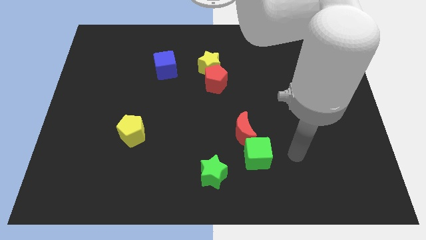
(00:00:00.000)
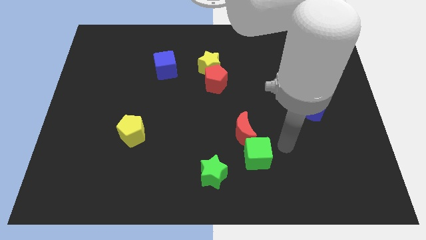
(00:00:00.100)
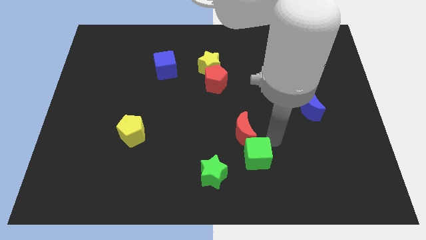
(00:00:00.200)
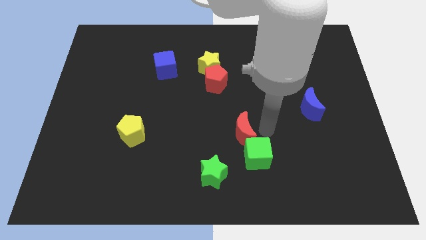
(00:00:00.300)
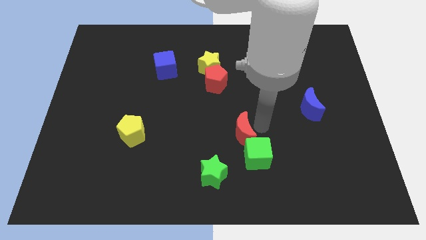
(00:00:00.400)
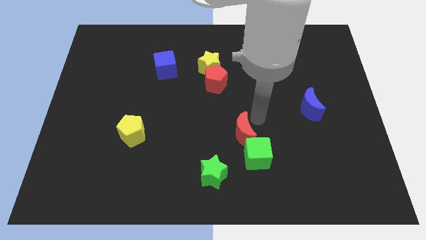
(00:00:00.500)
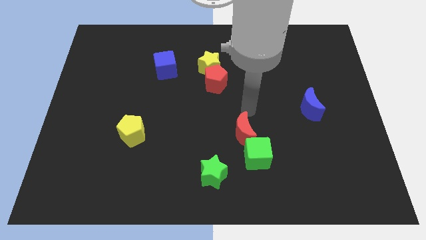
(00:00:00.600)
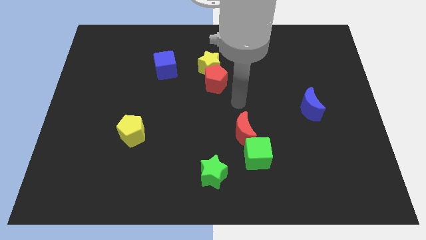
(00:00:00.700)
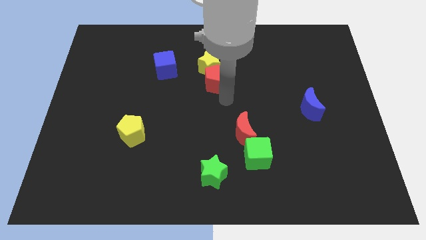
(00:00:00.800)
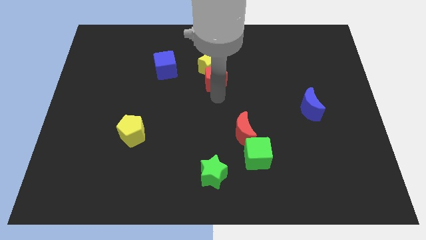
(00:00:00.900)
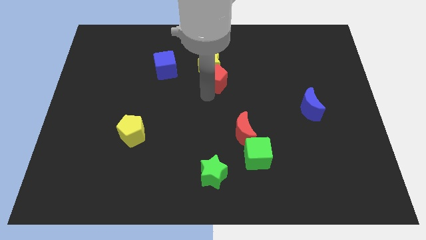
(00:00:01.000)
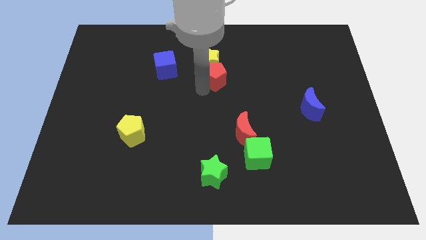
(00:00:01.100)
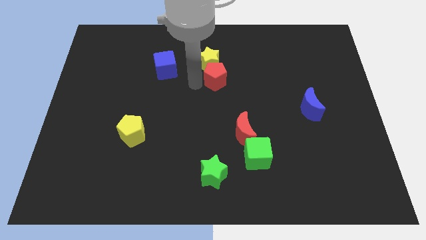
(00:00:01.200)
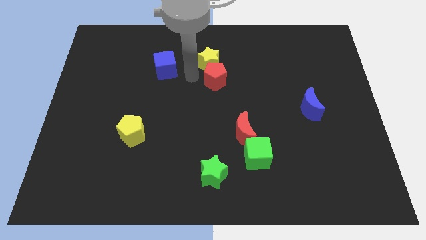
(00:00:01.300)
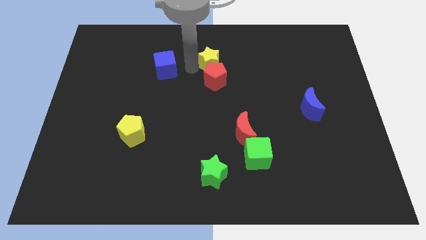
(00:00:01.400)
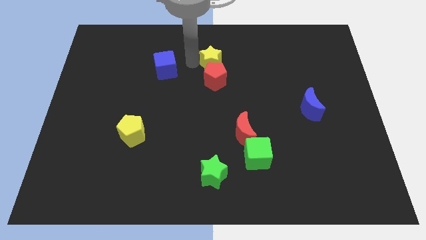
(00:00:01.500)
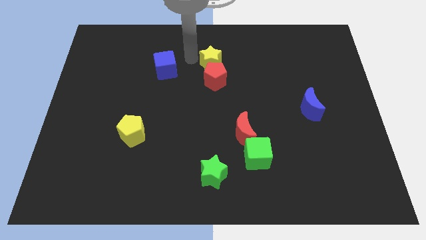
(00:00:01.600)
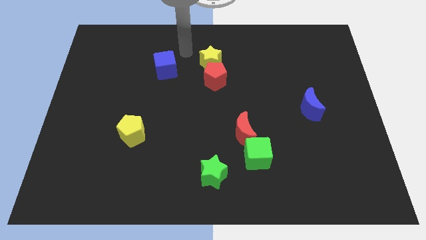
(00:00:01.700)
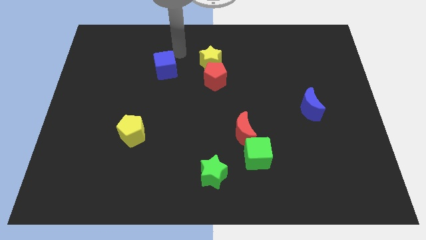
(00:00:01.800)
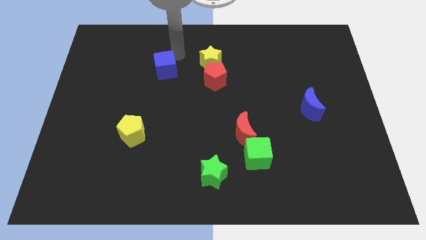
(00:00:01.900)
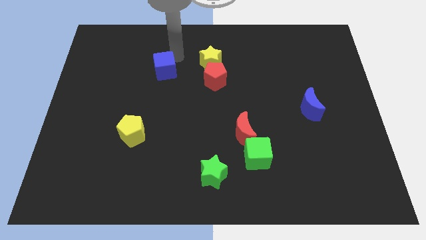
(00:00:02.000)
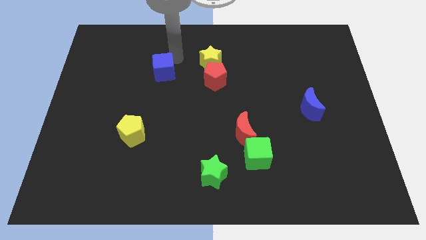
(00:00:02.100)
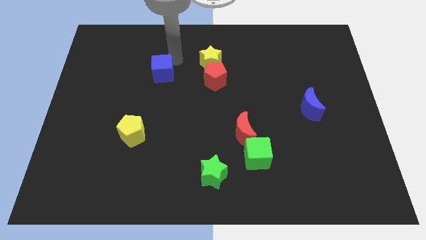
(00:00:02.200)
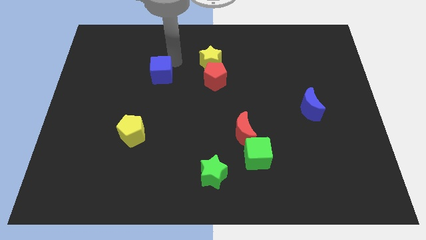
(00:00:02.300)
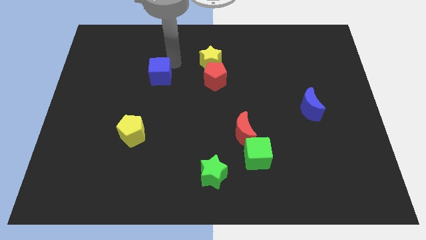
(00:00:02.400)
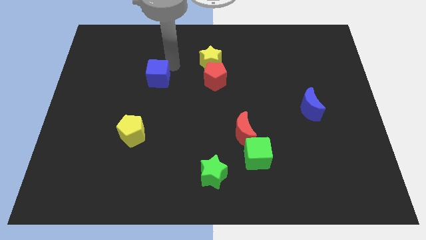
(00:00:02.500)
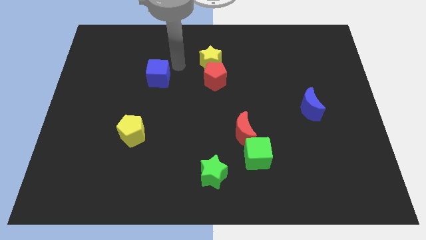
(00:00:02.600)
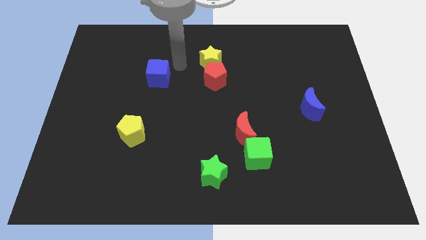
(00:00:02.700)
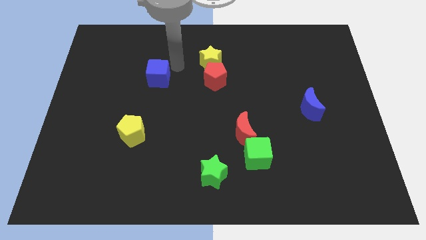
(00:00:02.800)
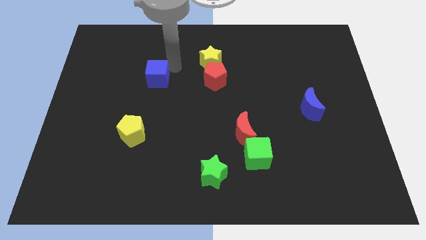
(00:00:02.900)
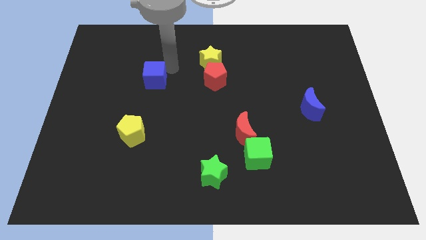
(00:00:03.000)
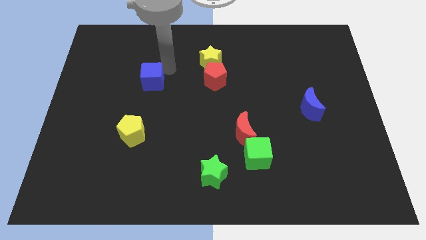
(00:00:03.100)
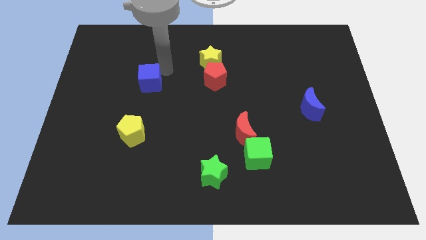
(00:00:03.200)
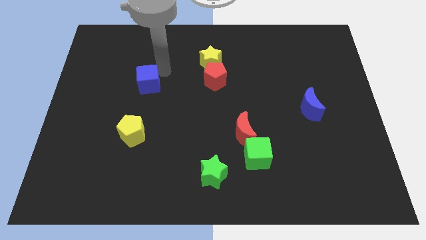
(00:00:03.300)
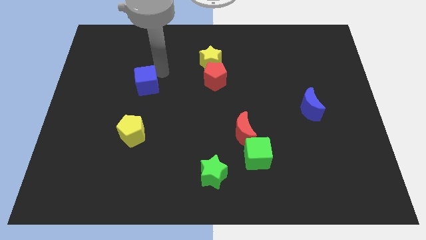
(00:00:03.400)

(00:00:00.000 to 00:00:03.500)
slightly slide the blue cube downwards and then to the left

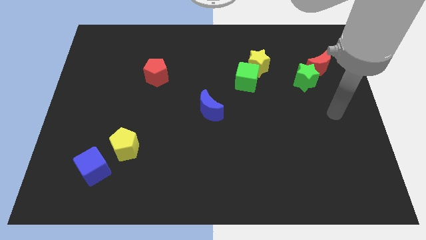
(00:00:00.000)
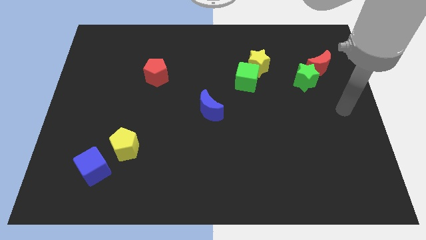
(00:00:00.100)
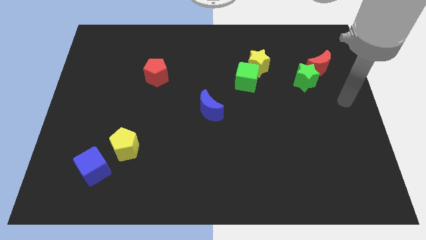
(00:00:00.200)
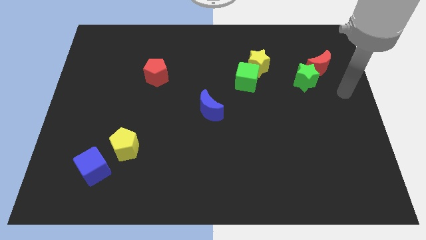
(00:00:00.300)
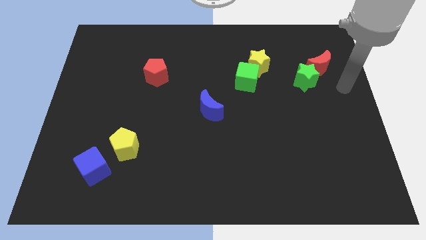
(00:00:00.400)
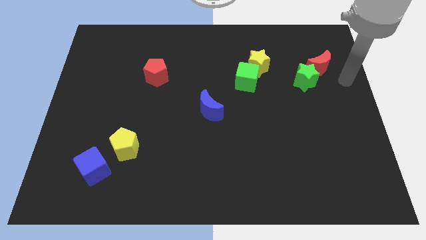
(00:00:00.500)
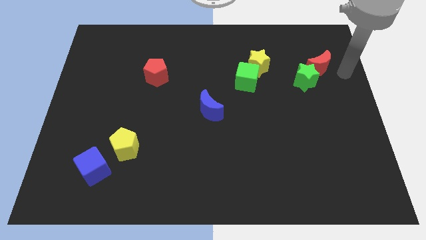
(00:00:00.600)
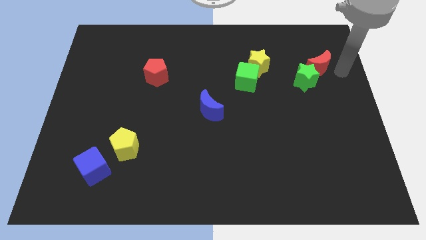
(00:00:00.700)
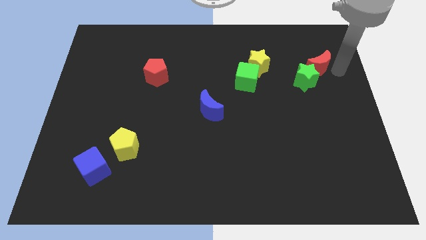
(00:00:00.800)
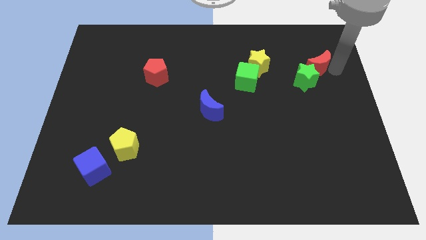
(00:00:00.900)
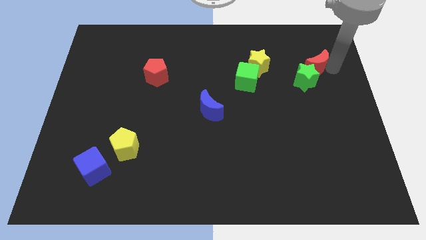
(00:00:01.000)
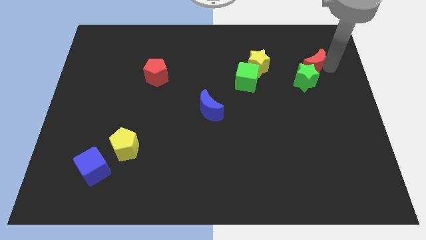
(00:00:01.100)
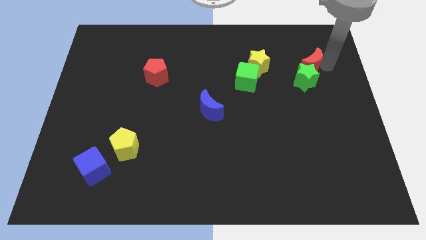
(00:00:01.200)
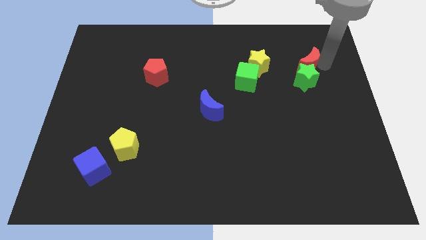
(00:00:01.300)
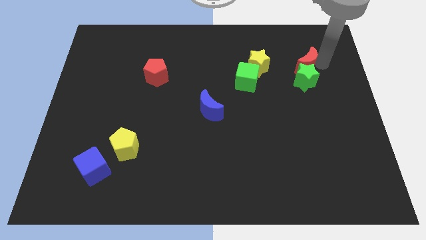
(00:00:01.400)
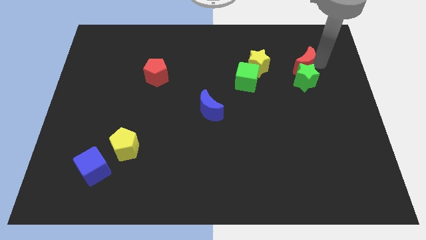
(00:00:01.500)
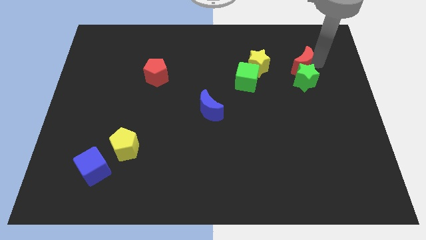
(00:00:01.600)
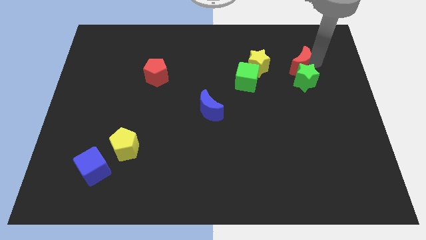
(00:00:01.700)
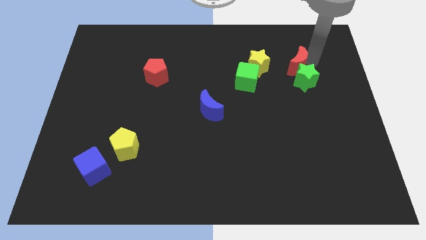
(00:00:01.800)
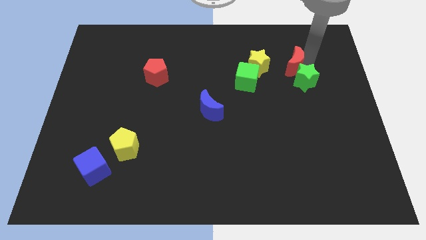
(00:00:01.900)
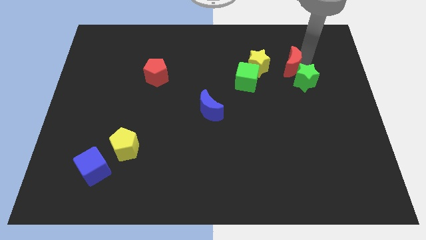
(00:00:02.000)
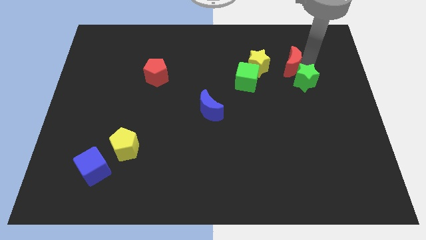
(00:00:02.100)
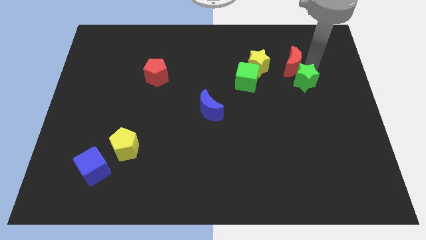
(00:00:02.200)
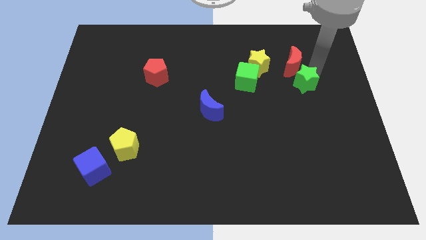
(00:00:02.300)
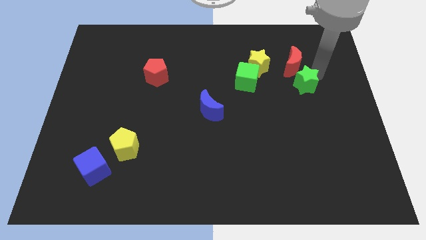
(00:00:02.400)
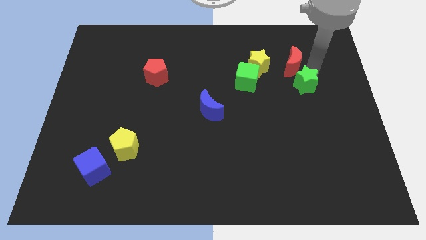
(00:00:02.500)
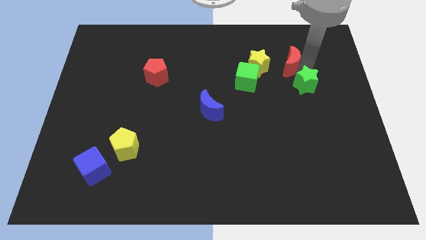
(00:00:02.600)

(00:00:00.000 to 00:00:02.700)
push the red moon to the left a bit

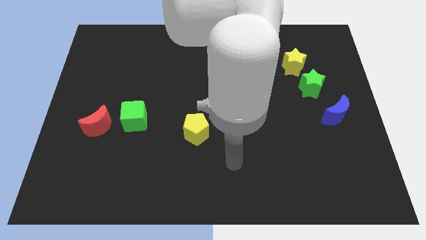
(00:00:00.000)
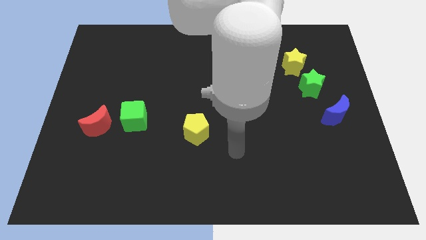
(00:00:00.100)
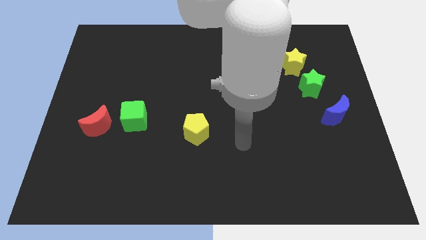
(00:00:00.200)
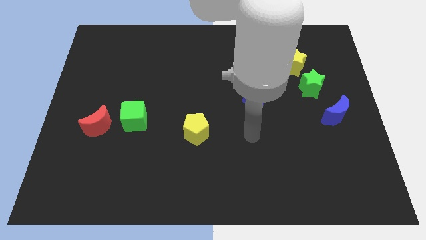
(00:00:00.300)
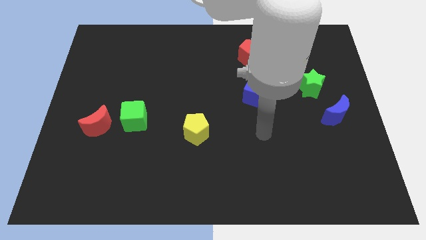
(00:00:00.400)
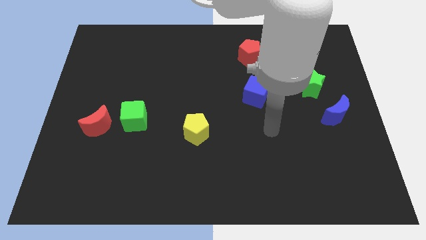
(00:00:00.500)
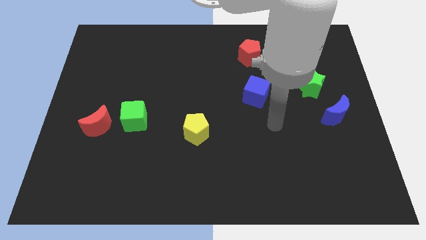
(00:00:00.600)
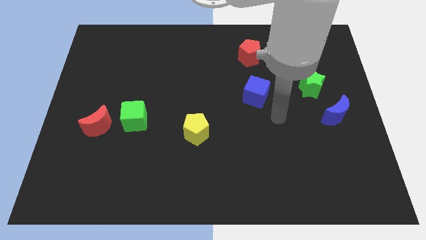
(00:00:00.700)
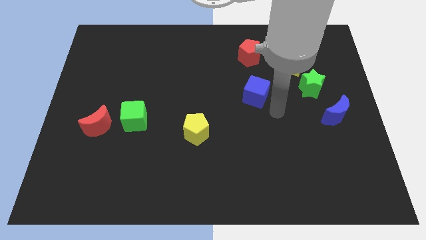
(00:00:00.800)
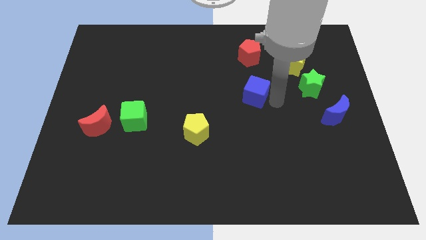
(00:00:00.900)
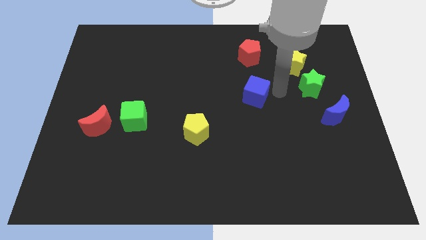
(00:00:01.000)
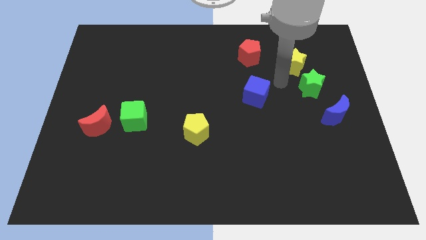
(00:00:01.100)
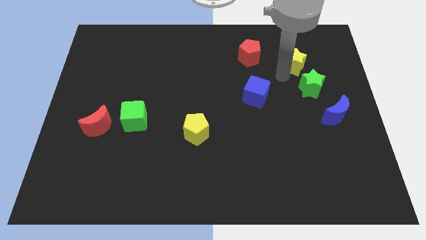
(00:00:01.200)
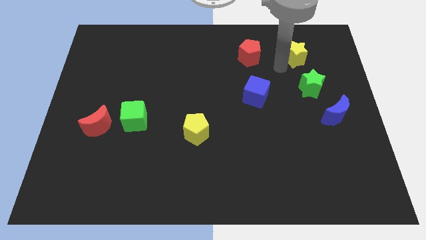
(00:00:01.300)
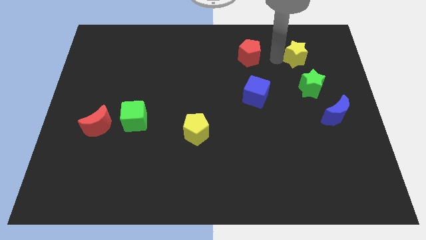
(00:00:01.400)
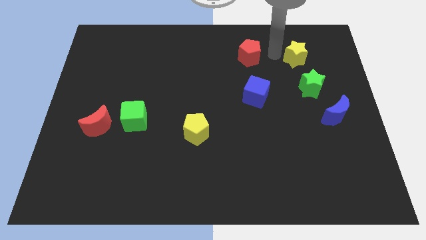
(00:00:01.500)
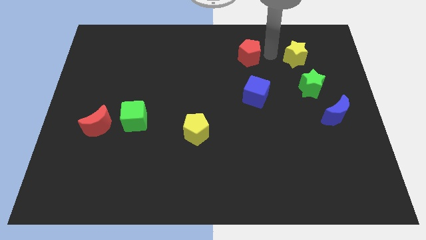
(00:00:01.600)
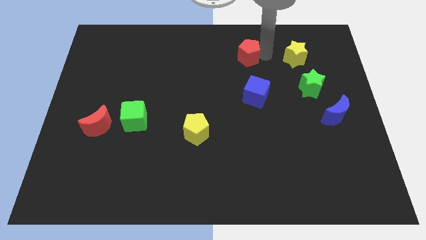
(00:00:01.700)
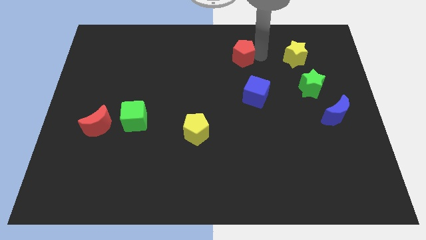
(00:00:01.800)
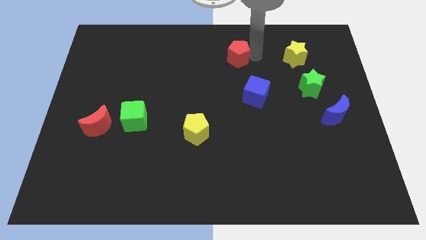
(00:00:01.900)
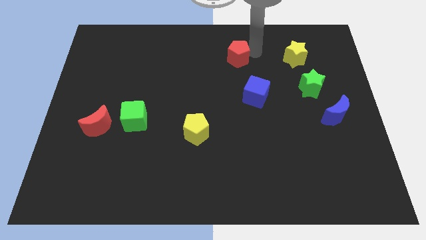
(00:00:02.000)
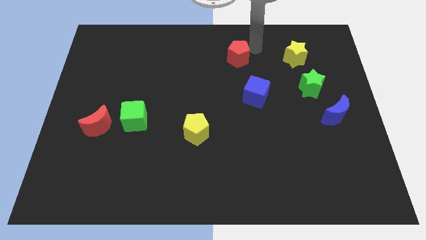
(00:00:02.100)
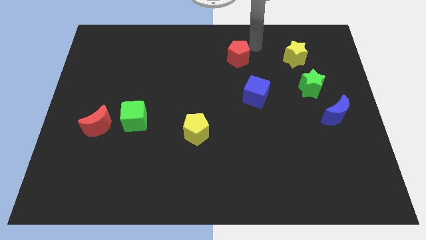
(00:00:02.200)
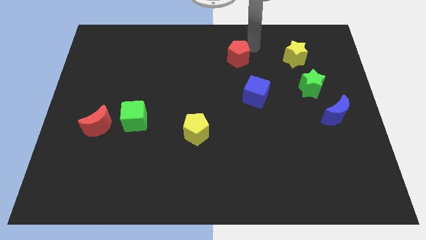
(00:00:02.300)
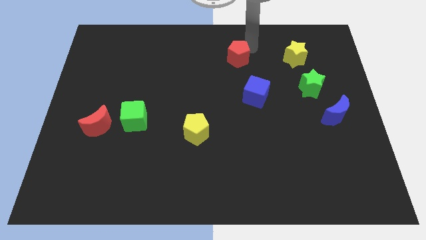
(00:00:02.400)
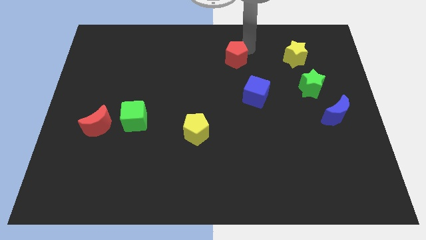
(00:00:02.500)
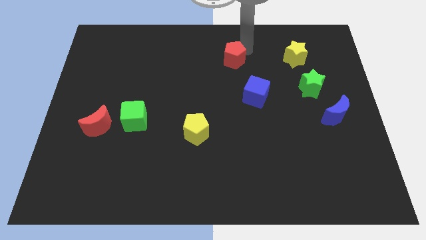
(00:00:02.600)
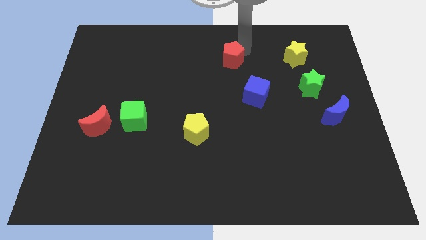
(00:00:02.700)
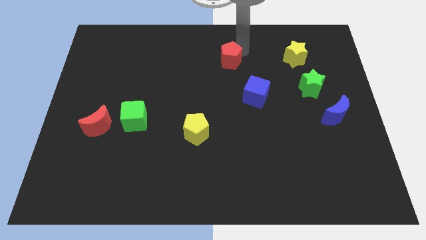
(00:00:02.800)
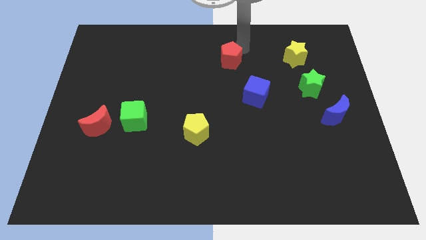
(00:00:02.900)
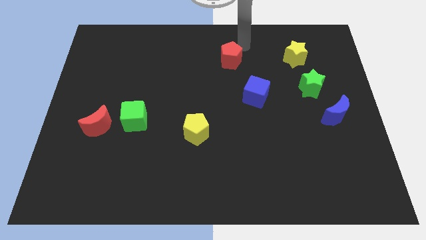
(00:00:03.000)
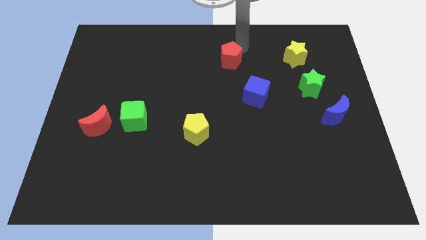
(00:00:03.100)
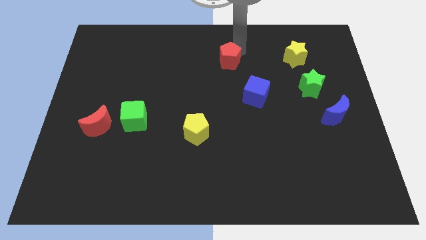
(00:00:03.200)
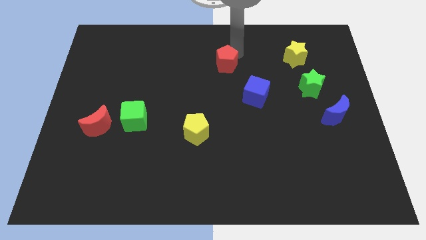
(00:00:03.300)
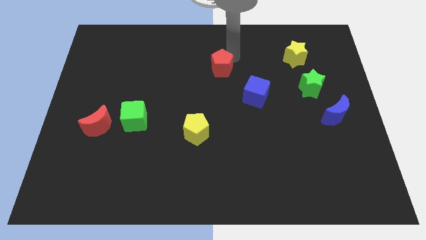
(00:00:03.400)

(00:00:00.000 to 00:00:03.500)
move the red pentagon a little diagonally down and left
